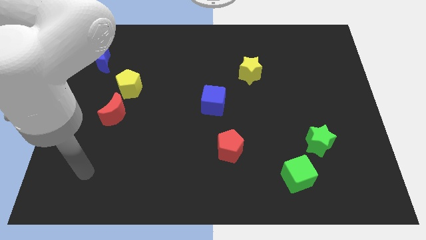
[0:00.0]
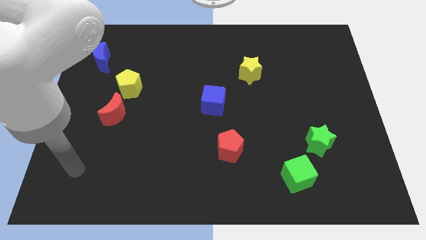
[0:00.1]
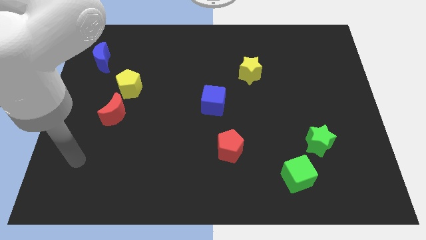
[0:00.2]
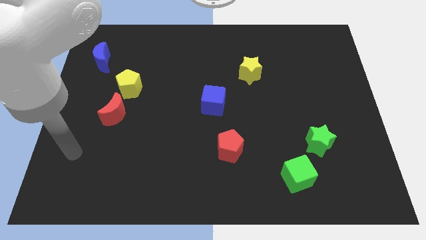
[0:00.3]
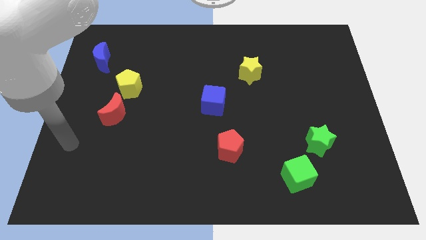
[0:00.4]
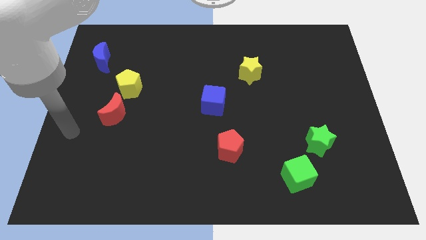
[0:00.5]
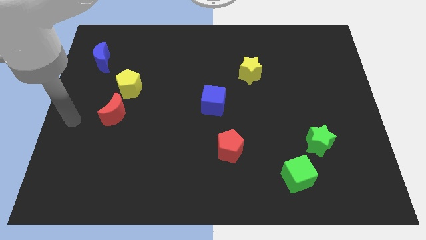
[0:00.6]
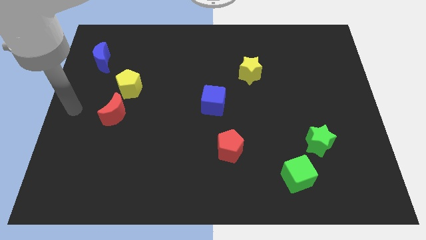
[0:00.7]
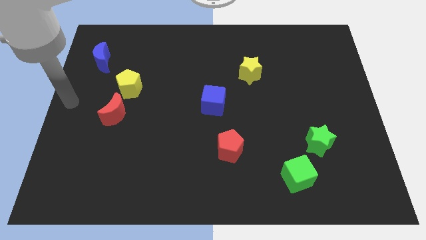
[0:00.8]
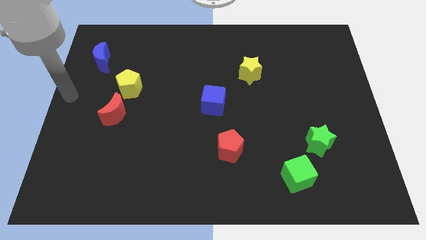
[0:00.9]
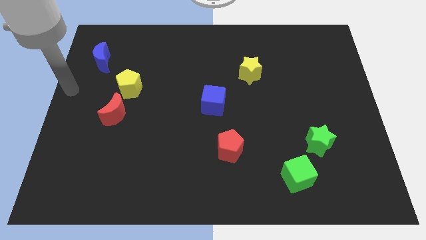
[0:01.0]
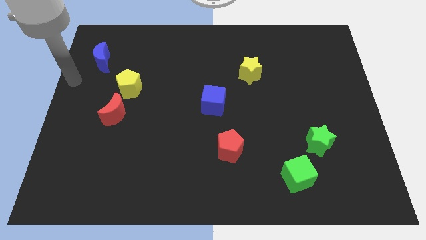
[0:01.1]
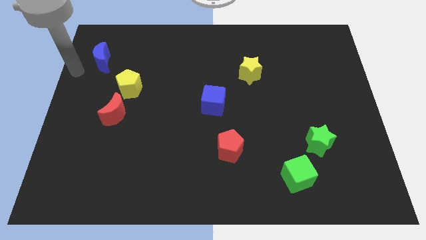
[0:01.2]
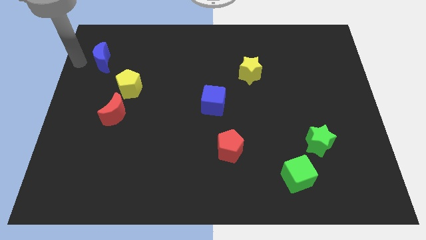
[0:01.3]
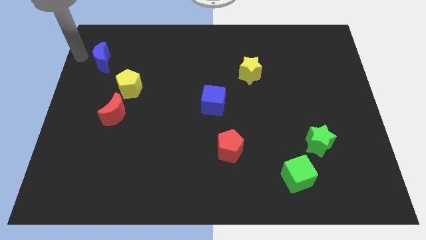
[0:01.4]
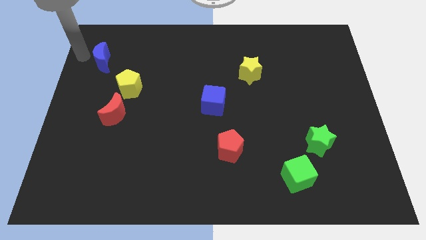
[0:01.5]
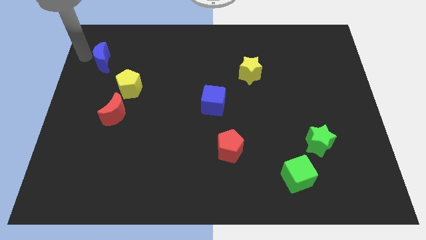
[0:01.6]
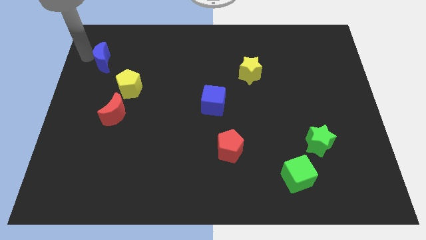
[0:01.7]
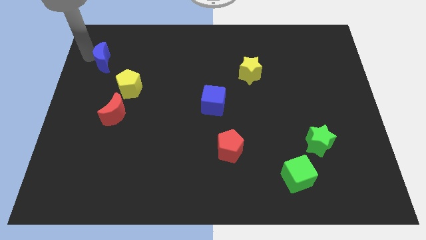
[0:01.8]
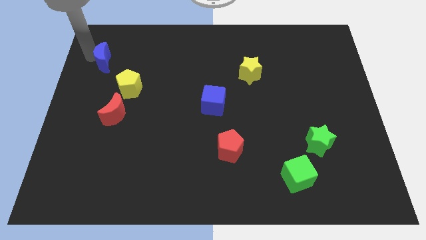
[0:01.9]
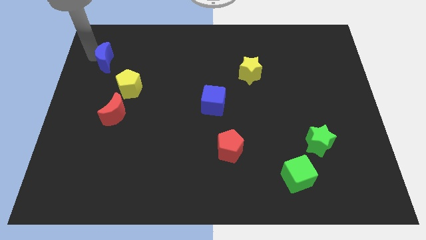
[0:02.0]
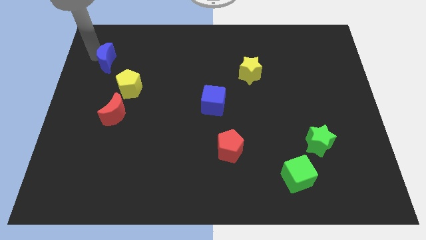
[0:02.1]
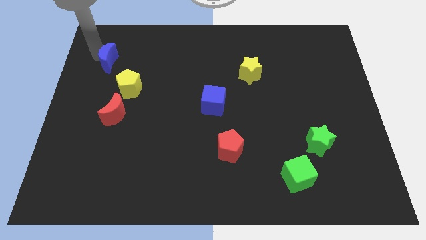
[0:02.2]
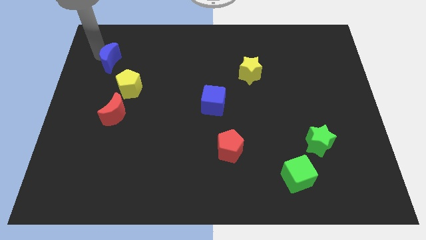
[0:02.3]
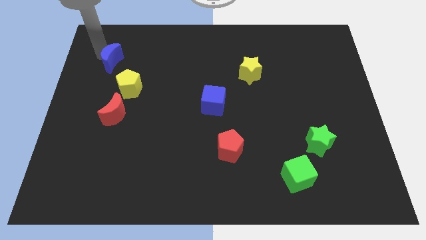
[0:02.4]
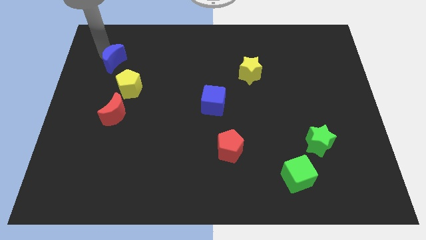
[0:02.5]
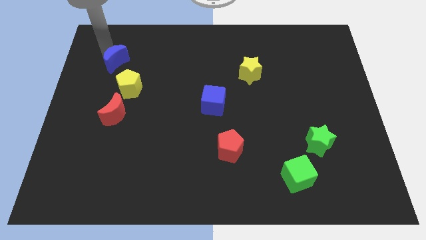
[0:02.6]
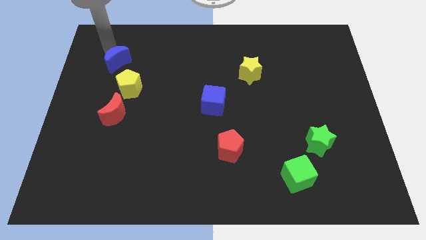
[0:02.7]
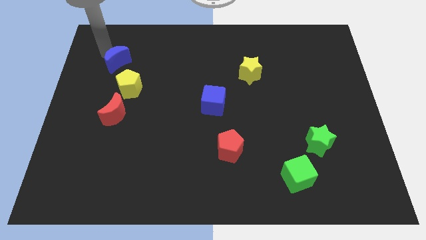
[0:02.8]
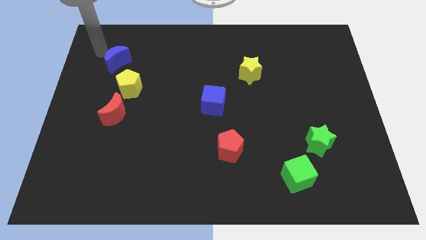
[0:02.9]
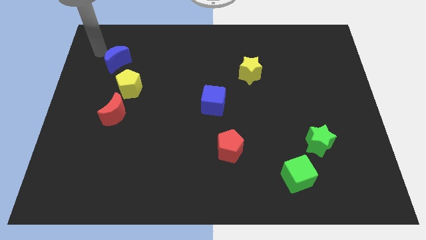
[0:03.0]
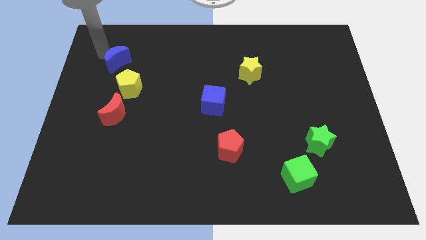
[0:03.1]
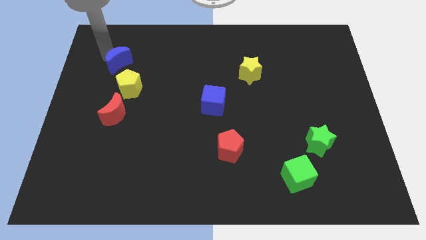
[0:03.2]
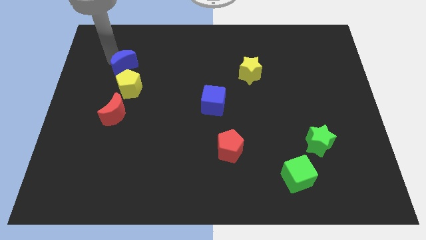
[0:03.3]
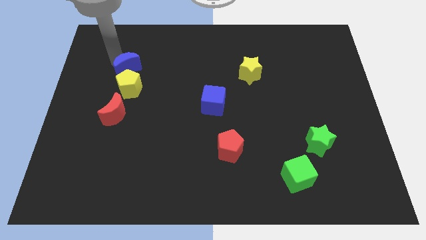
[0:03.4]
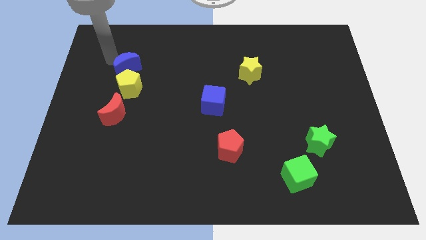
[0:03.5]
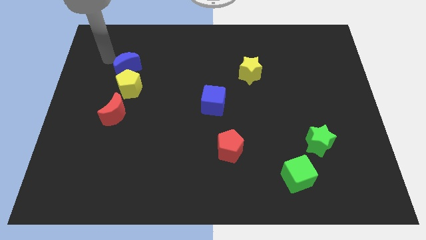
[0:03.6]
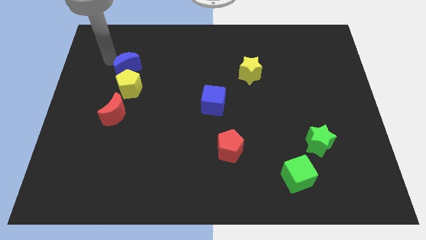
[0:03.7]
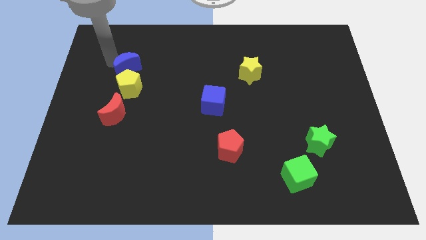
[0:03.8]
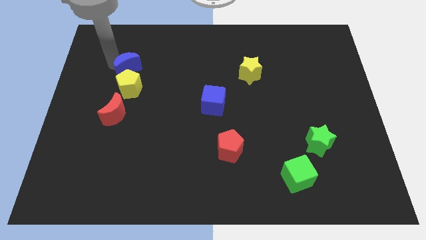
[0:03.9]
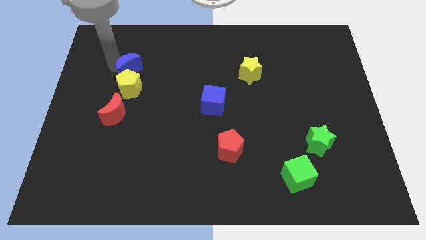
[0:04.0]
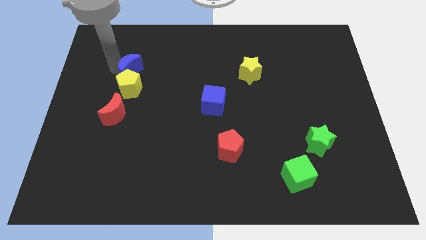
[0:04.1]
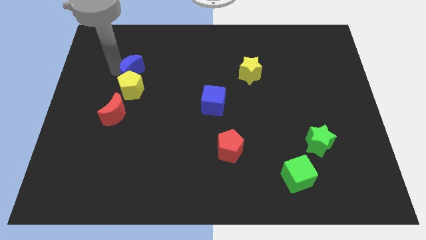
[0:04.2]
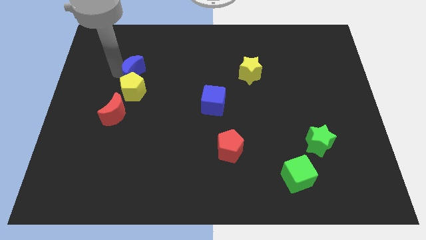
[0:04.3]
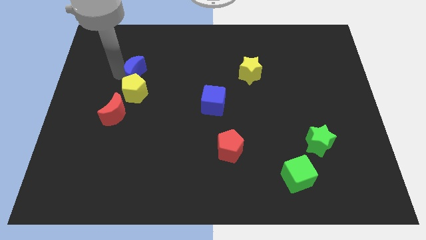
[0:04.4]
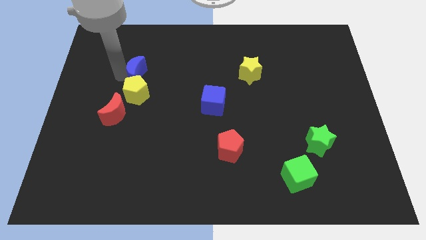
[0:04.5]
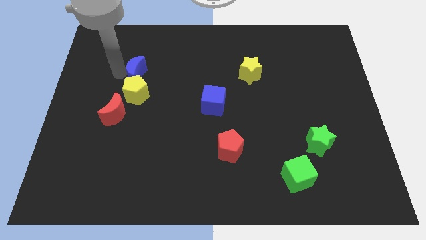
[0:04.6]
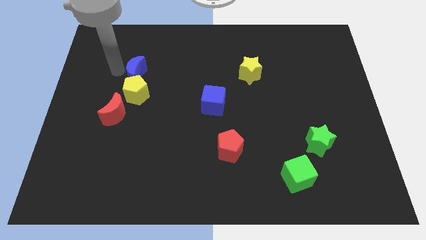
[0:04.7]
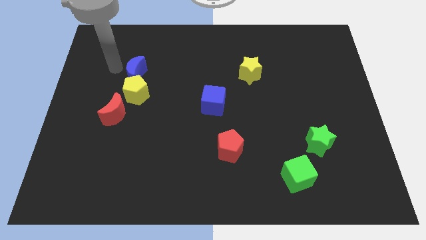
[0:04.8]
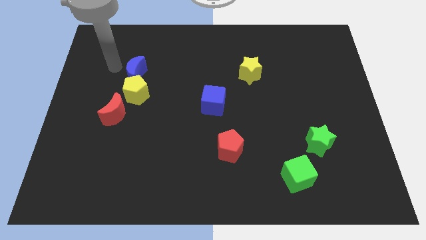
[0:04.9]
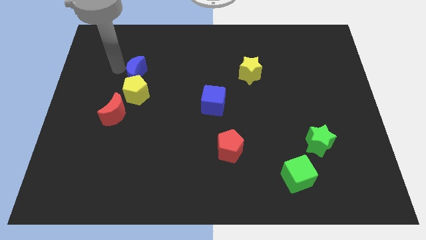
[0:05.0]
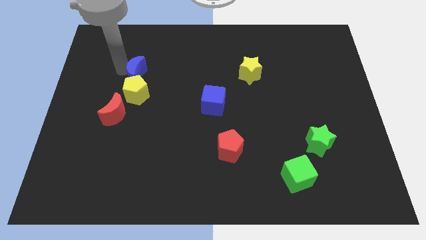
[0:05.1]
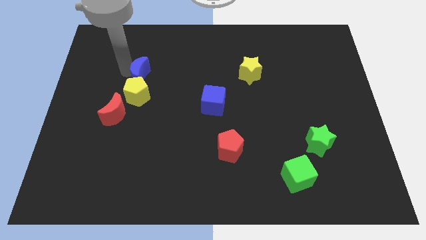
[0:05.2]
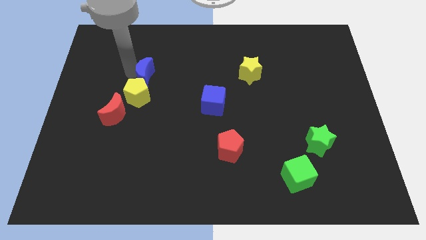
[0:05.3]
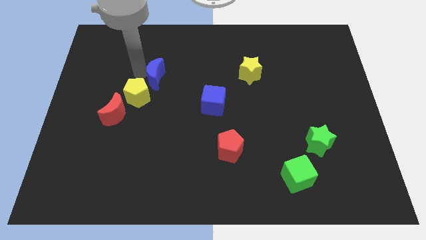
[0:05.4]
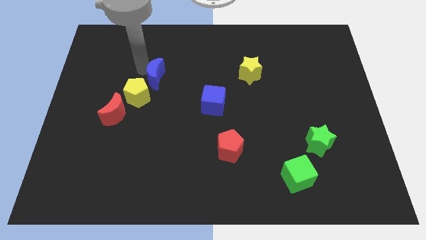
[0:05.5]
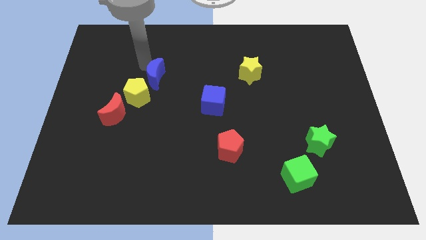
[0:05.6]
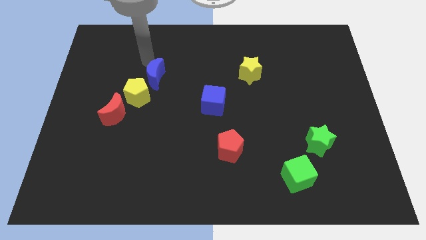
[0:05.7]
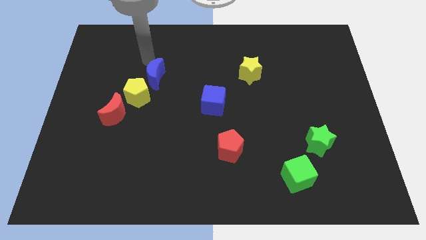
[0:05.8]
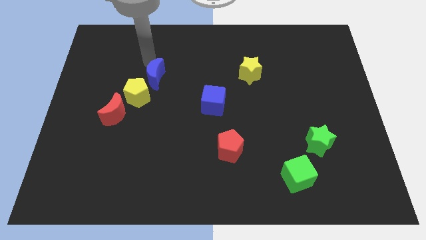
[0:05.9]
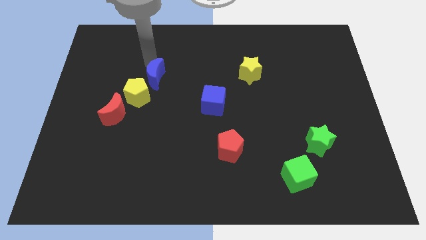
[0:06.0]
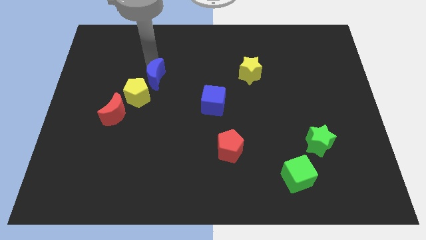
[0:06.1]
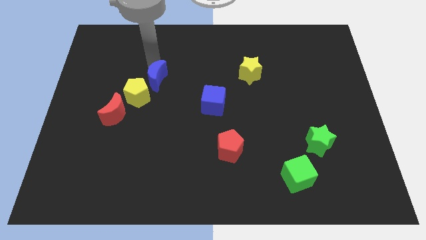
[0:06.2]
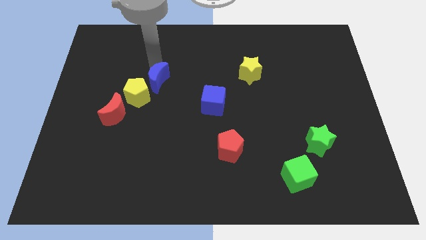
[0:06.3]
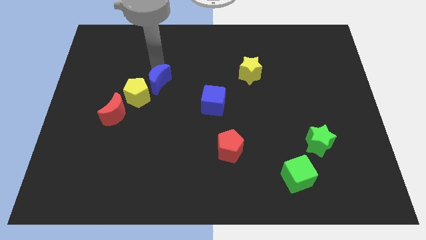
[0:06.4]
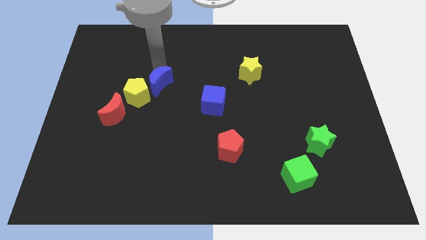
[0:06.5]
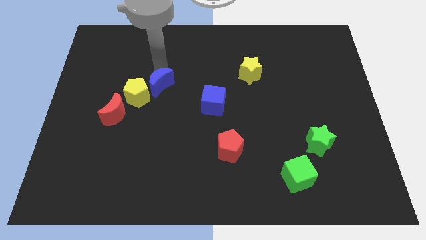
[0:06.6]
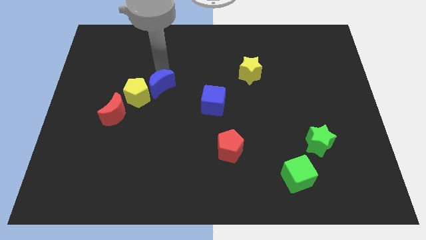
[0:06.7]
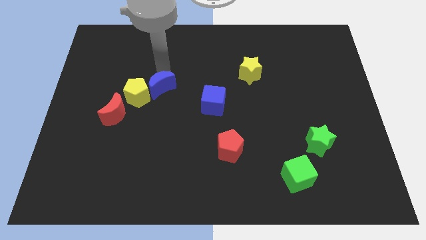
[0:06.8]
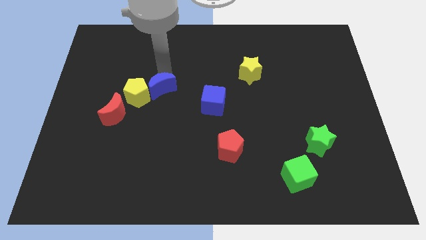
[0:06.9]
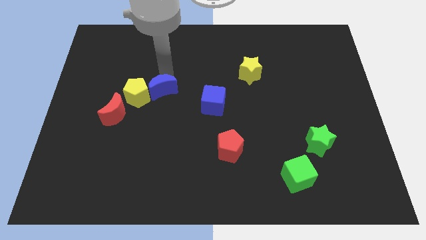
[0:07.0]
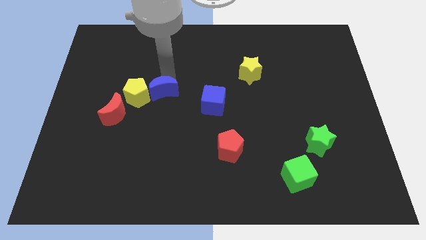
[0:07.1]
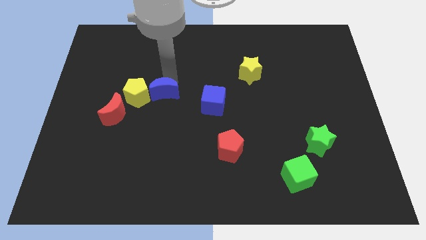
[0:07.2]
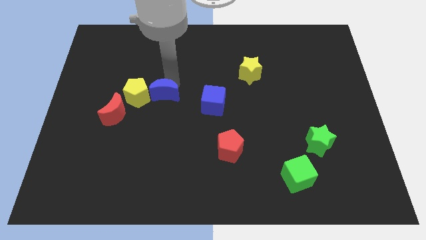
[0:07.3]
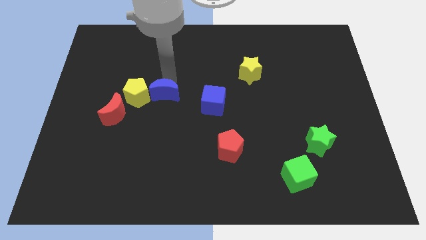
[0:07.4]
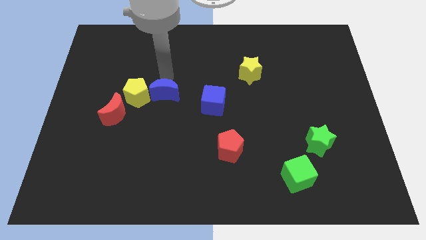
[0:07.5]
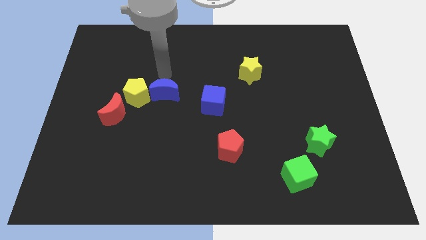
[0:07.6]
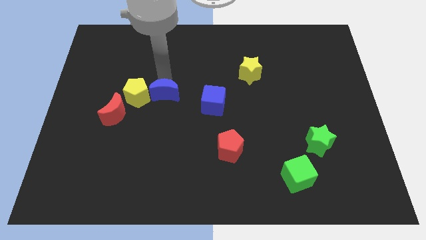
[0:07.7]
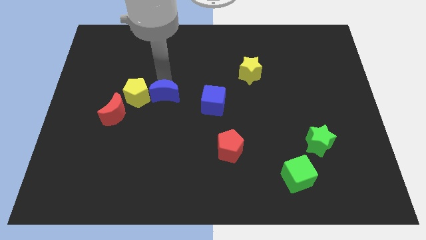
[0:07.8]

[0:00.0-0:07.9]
move the blue moon down and then to the right
